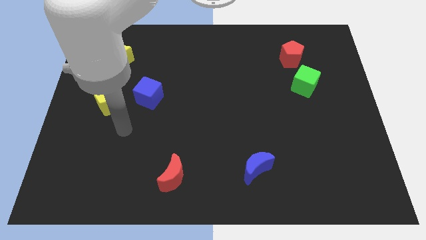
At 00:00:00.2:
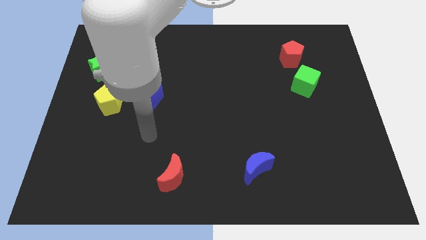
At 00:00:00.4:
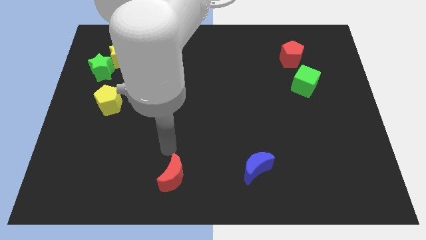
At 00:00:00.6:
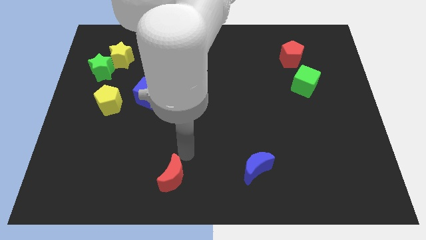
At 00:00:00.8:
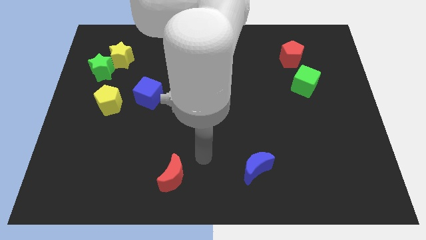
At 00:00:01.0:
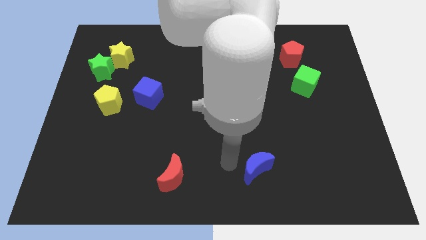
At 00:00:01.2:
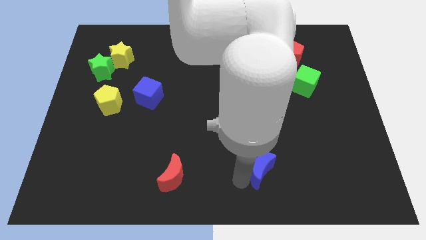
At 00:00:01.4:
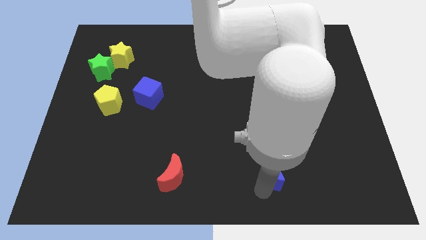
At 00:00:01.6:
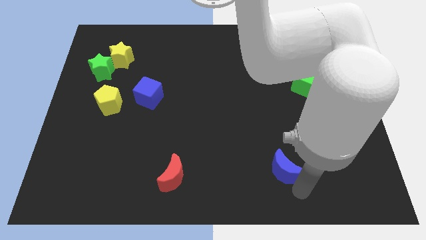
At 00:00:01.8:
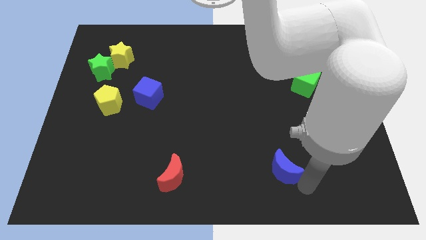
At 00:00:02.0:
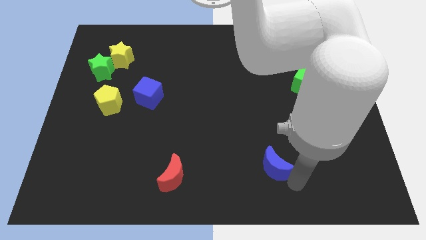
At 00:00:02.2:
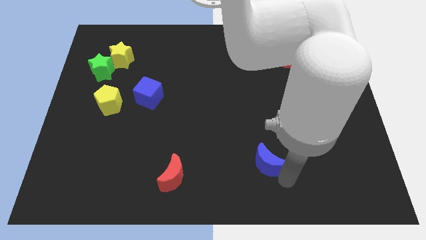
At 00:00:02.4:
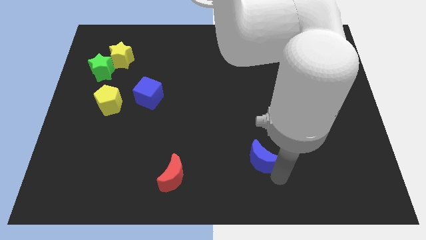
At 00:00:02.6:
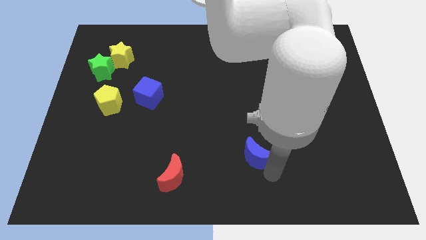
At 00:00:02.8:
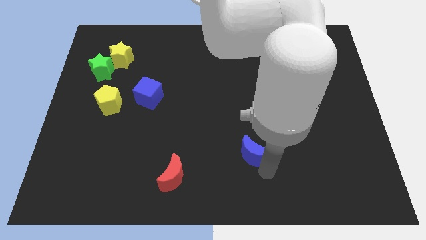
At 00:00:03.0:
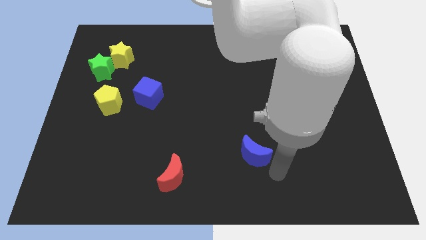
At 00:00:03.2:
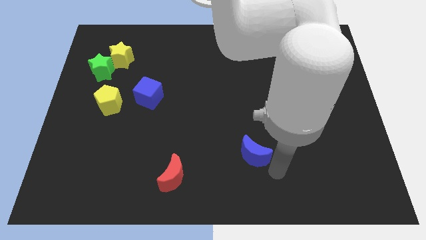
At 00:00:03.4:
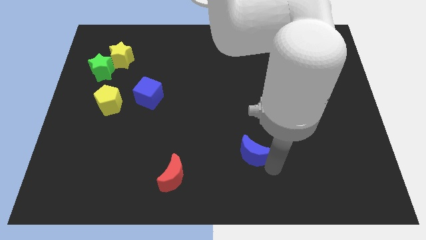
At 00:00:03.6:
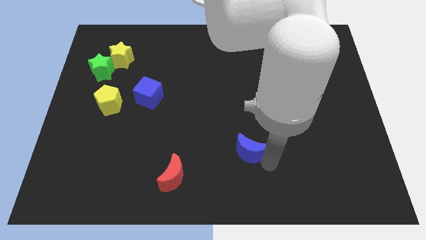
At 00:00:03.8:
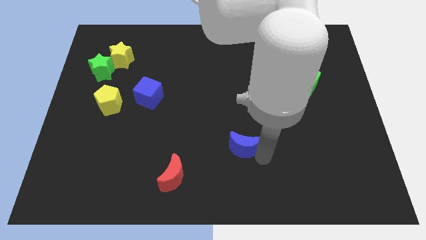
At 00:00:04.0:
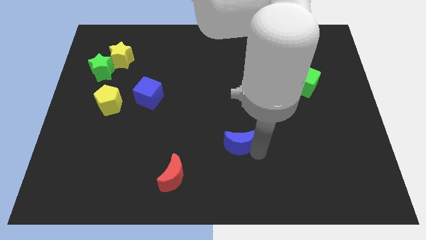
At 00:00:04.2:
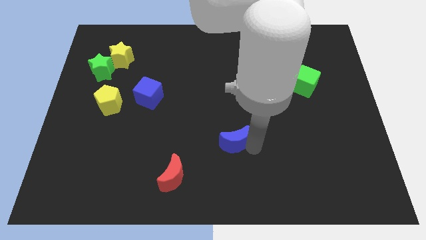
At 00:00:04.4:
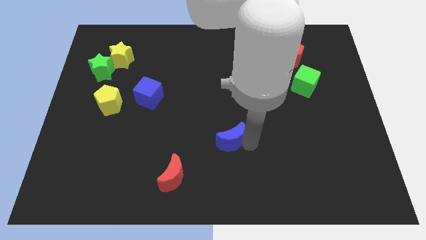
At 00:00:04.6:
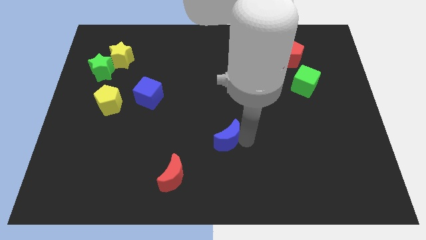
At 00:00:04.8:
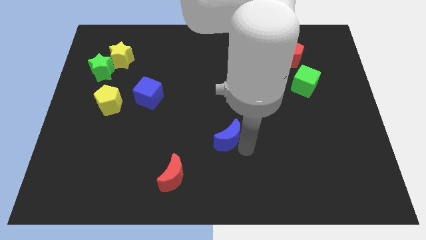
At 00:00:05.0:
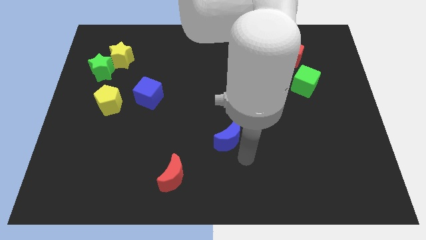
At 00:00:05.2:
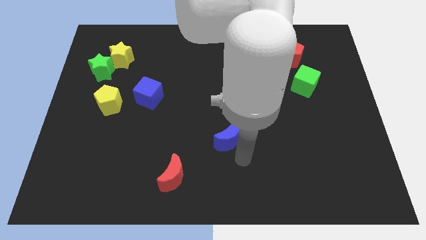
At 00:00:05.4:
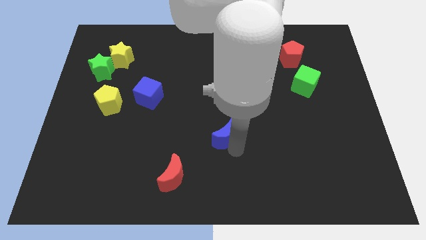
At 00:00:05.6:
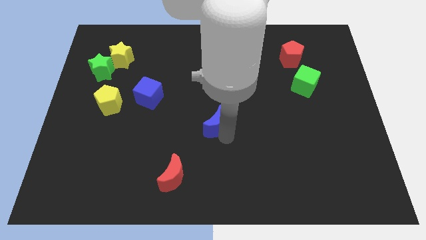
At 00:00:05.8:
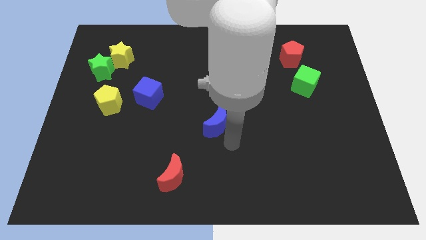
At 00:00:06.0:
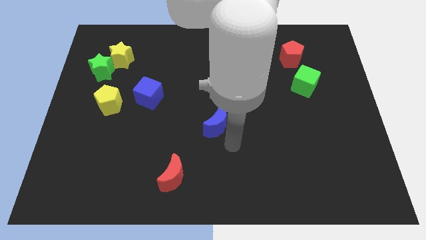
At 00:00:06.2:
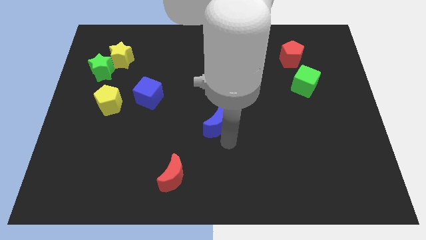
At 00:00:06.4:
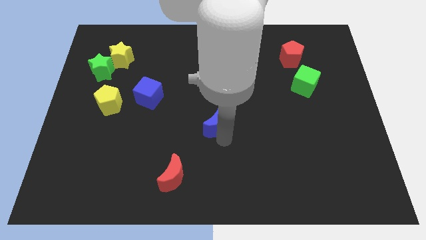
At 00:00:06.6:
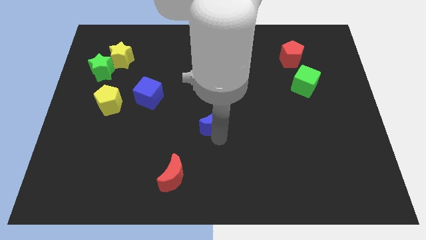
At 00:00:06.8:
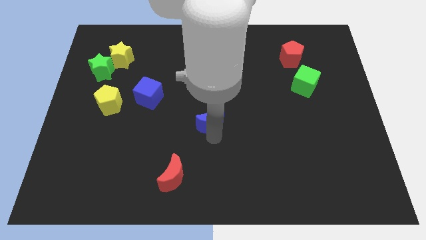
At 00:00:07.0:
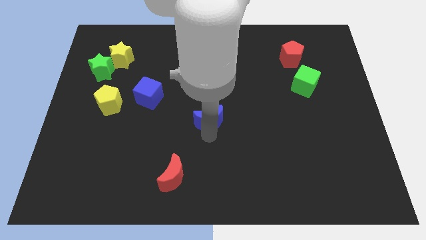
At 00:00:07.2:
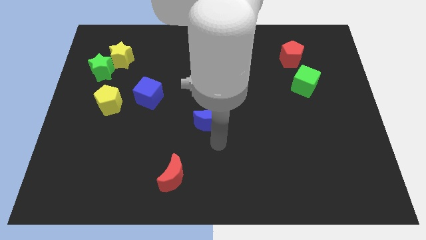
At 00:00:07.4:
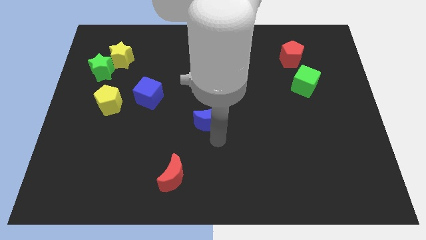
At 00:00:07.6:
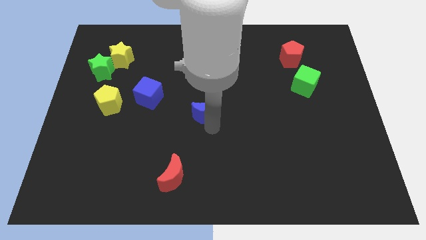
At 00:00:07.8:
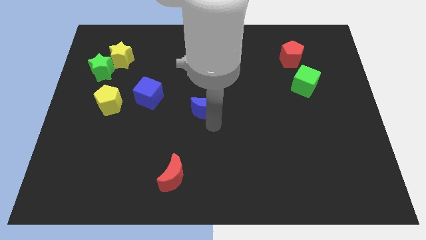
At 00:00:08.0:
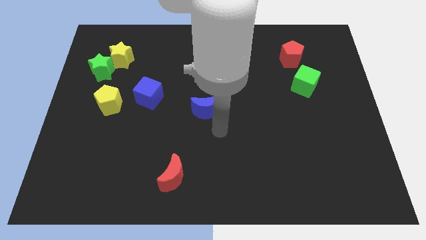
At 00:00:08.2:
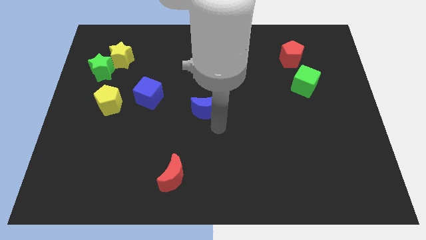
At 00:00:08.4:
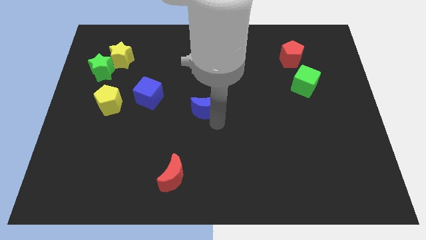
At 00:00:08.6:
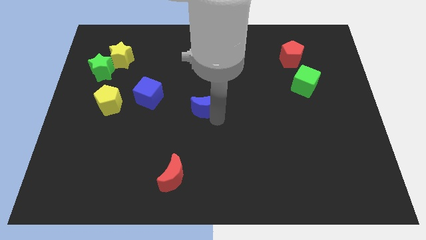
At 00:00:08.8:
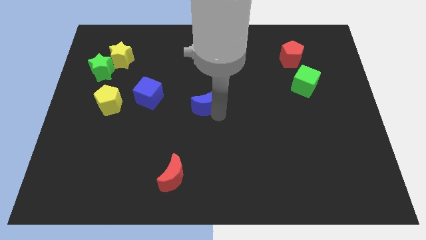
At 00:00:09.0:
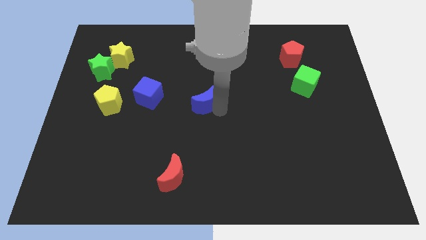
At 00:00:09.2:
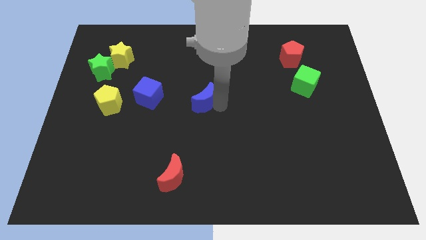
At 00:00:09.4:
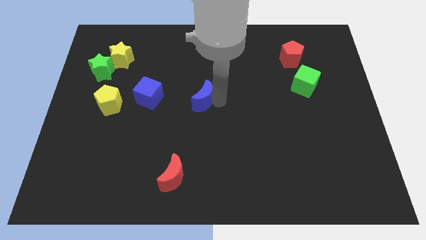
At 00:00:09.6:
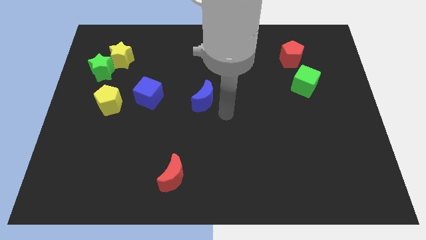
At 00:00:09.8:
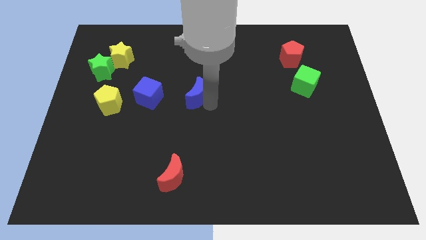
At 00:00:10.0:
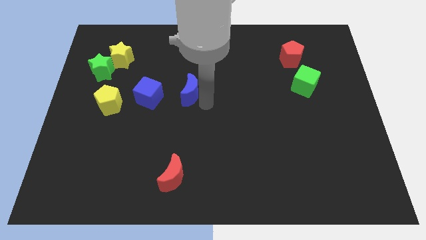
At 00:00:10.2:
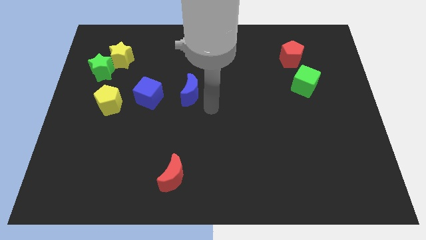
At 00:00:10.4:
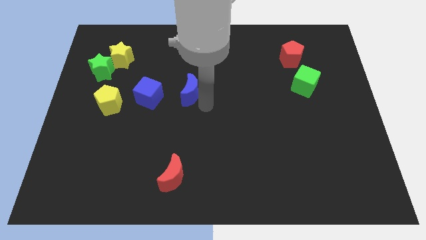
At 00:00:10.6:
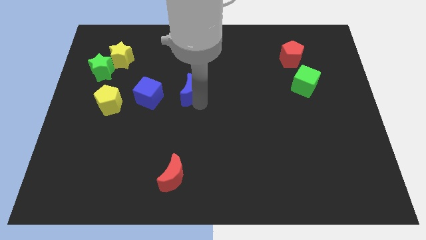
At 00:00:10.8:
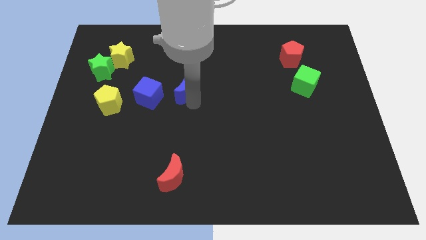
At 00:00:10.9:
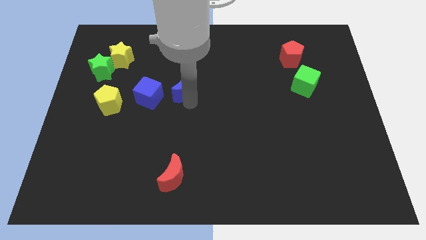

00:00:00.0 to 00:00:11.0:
push the blue moon to the top right side of the blue cube

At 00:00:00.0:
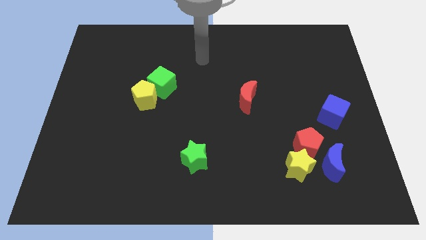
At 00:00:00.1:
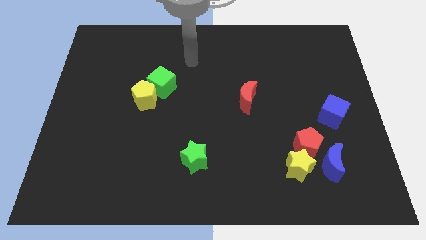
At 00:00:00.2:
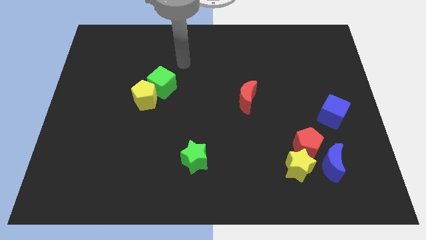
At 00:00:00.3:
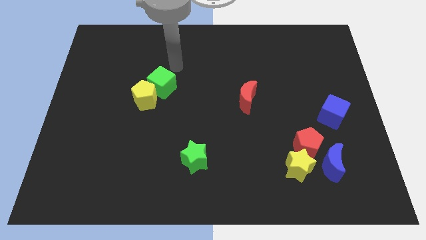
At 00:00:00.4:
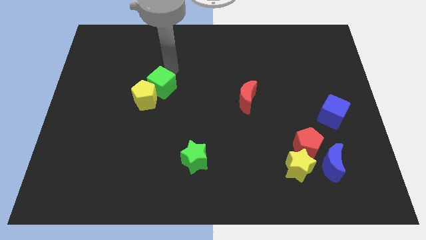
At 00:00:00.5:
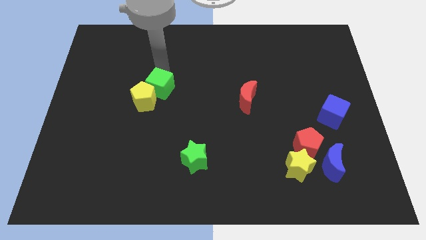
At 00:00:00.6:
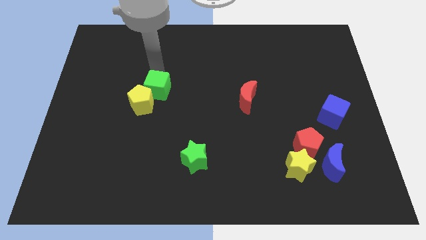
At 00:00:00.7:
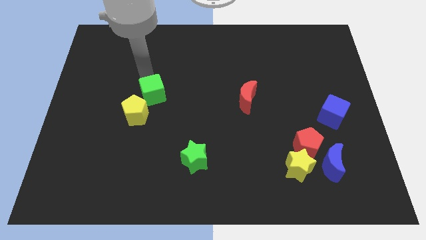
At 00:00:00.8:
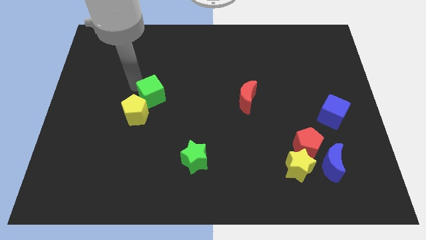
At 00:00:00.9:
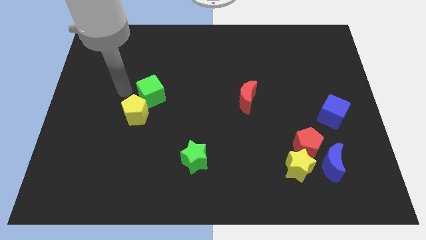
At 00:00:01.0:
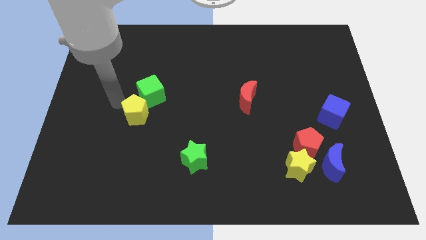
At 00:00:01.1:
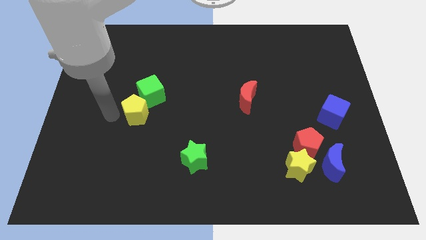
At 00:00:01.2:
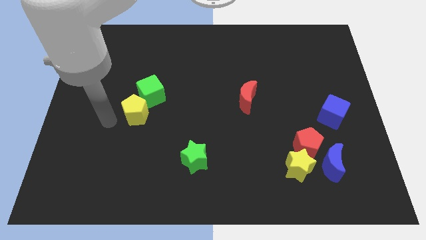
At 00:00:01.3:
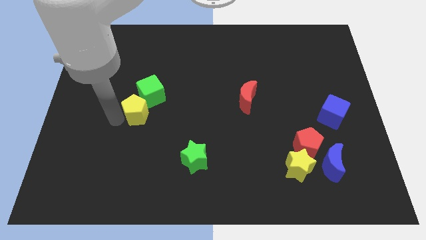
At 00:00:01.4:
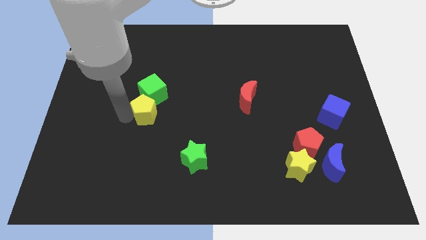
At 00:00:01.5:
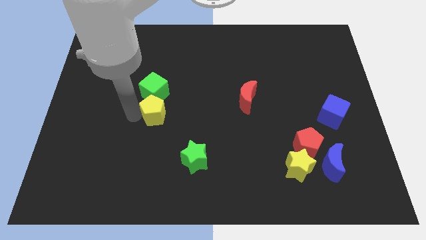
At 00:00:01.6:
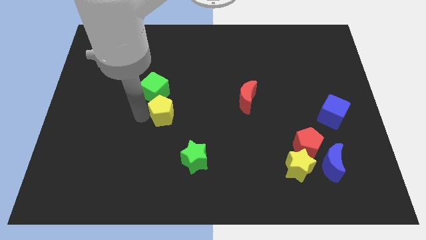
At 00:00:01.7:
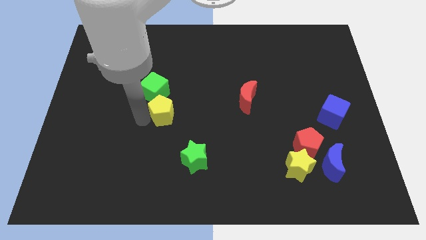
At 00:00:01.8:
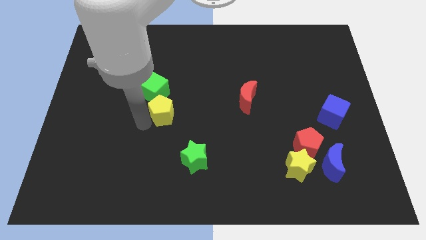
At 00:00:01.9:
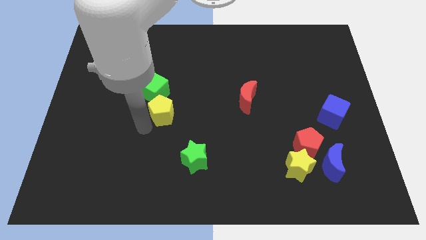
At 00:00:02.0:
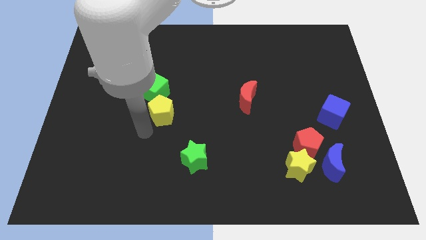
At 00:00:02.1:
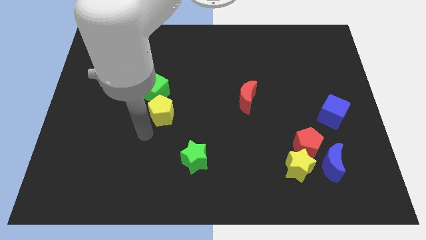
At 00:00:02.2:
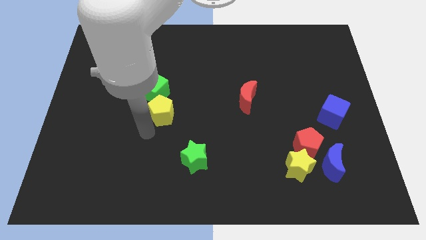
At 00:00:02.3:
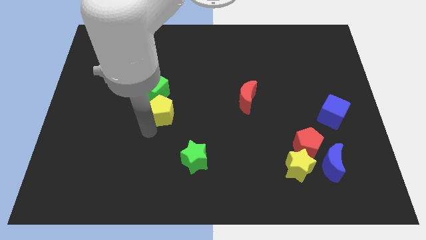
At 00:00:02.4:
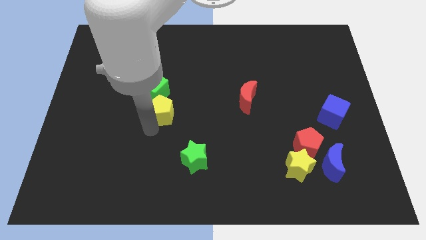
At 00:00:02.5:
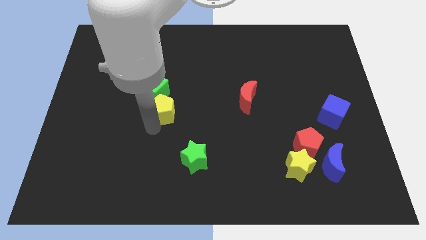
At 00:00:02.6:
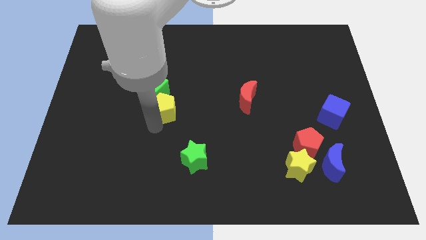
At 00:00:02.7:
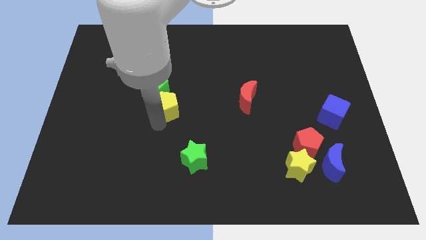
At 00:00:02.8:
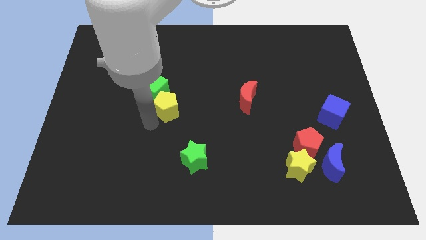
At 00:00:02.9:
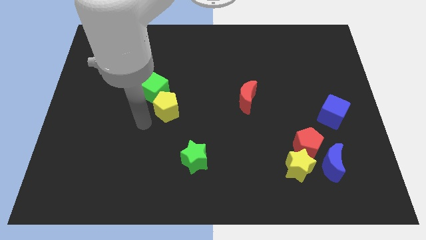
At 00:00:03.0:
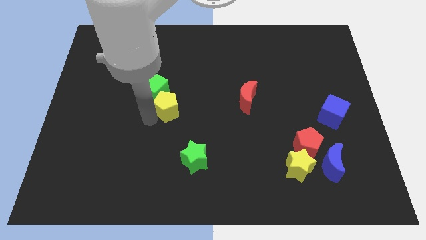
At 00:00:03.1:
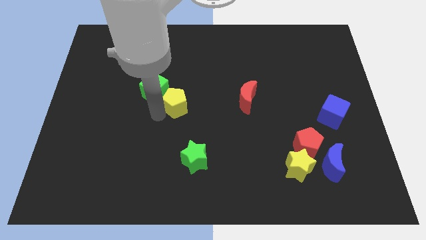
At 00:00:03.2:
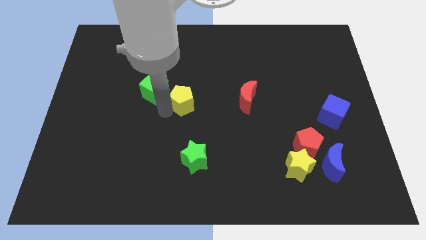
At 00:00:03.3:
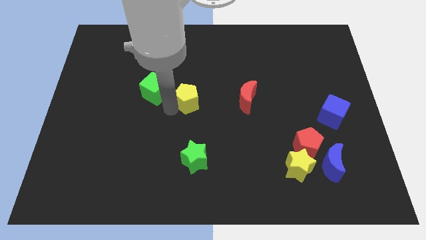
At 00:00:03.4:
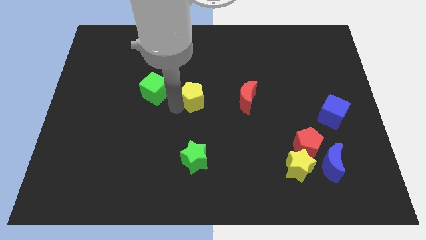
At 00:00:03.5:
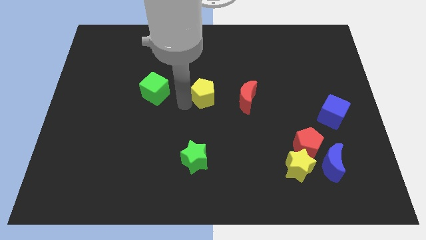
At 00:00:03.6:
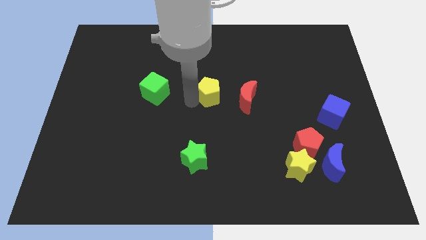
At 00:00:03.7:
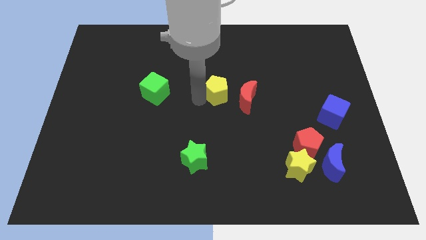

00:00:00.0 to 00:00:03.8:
move the yellow pentagon diagonally up and to the left of the red moon
